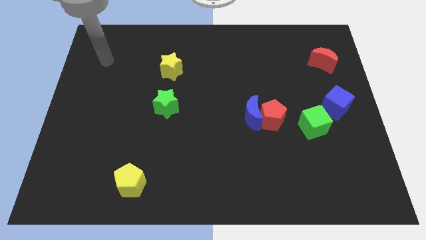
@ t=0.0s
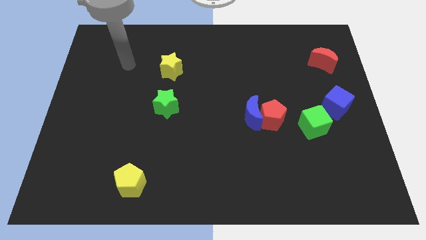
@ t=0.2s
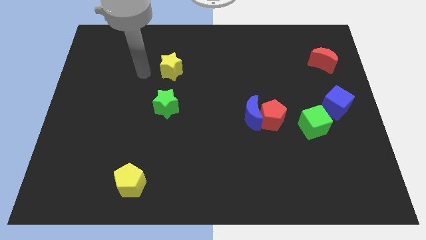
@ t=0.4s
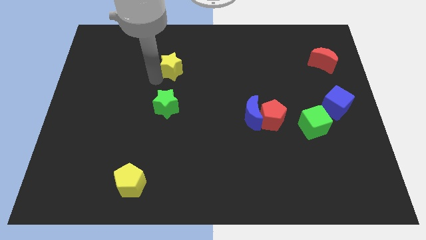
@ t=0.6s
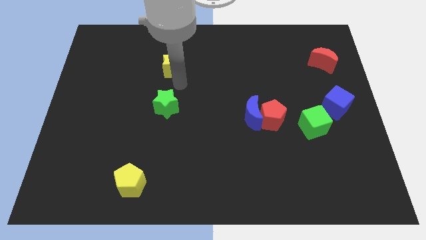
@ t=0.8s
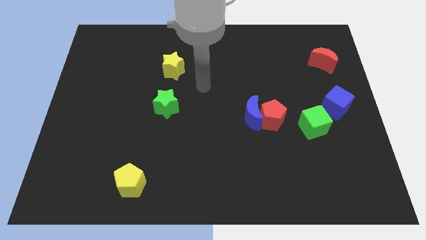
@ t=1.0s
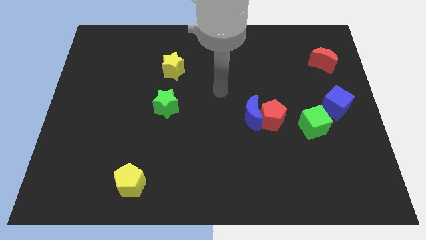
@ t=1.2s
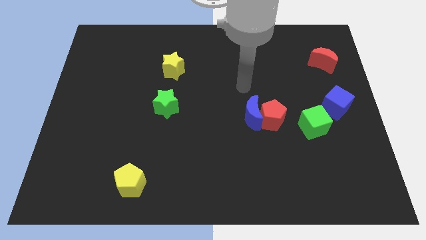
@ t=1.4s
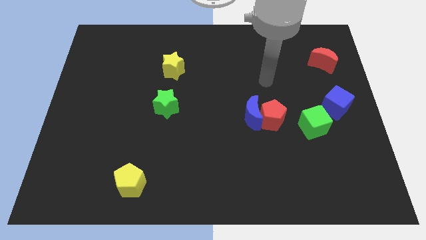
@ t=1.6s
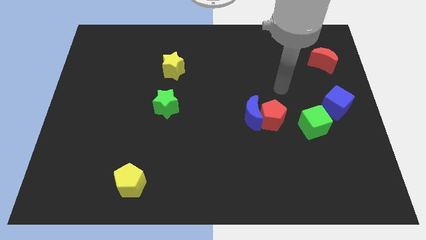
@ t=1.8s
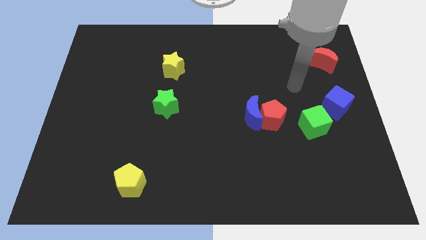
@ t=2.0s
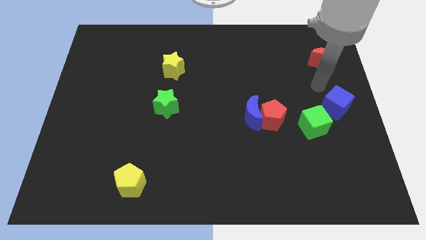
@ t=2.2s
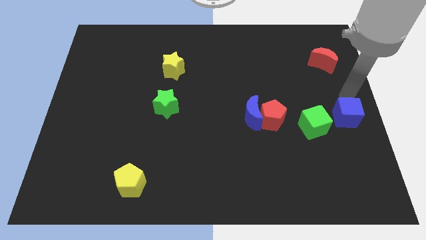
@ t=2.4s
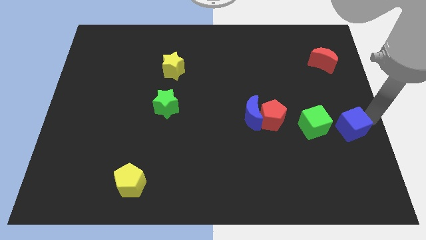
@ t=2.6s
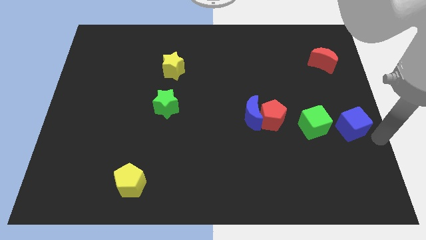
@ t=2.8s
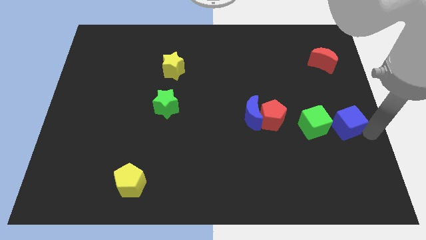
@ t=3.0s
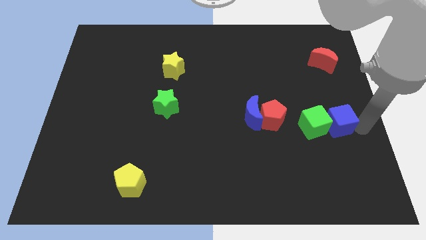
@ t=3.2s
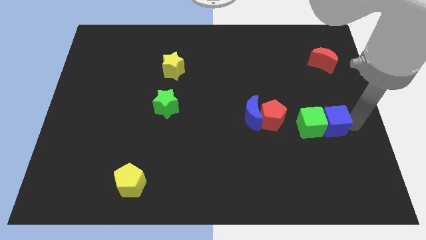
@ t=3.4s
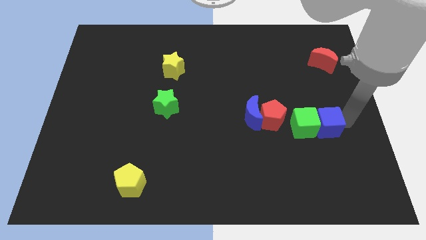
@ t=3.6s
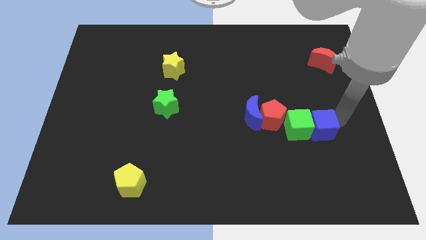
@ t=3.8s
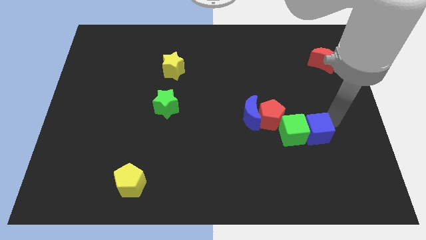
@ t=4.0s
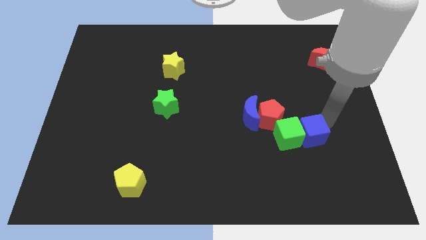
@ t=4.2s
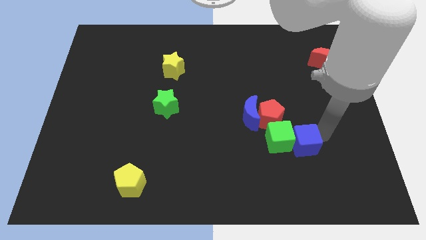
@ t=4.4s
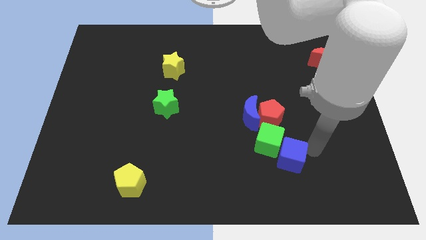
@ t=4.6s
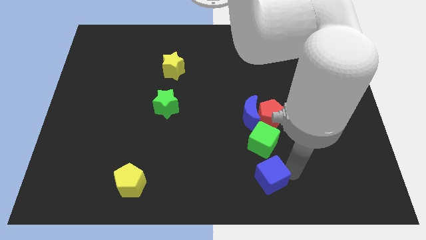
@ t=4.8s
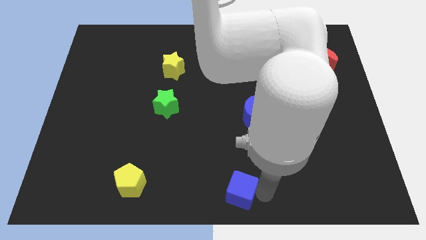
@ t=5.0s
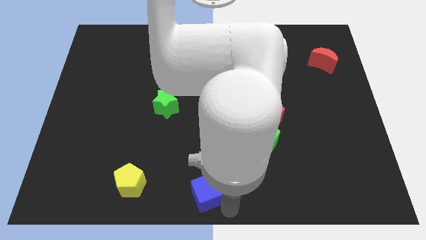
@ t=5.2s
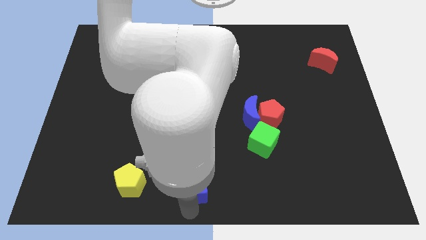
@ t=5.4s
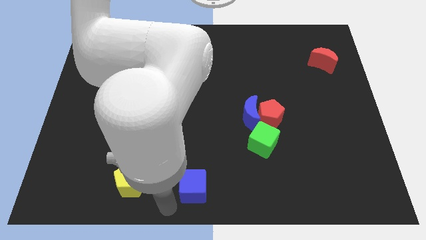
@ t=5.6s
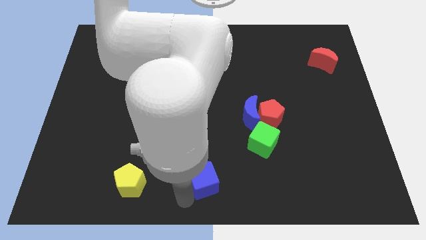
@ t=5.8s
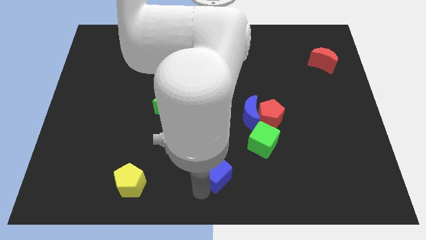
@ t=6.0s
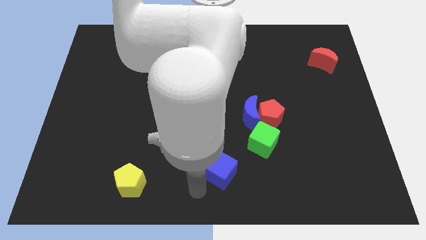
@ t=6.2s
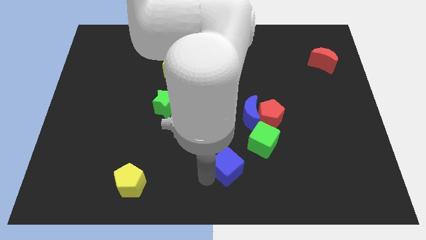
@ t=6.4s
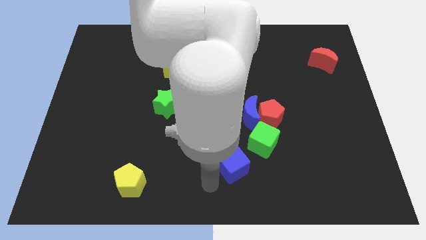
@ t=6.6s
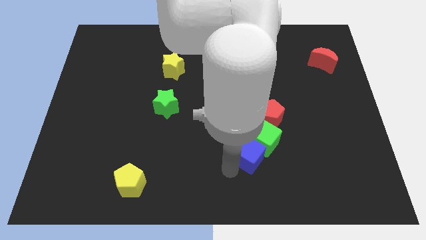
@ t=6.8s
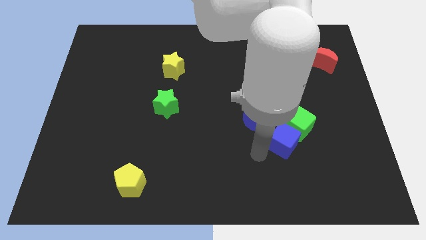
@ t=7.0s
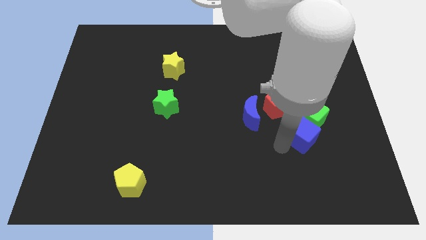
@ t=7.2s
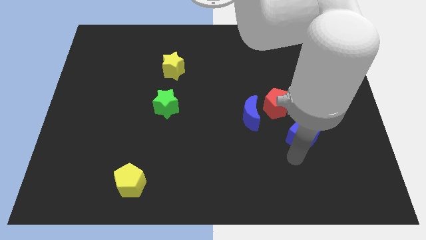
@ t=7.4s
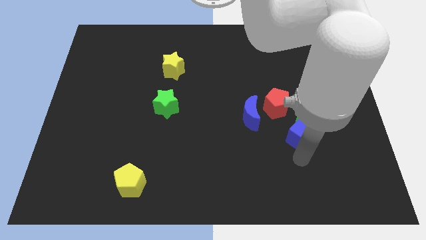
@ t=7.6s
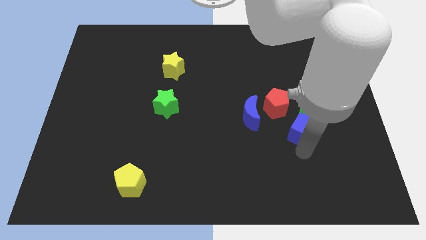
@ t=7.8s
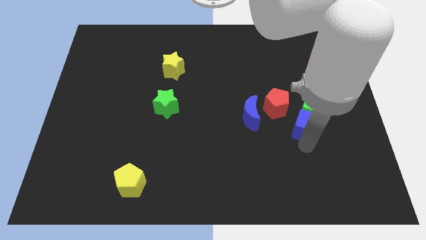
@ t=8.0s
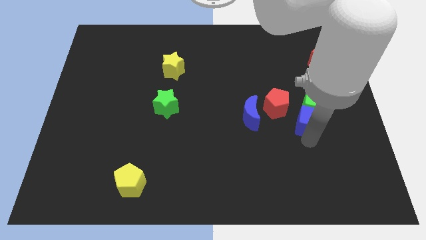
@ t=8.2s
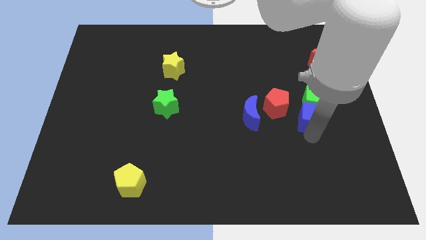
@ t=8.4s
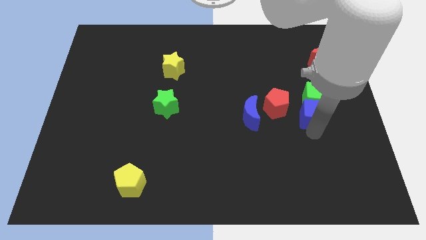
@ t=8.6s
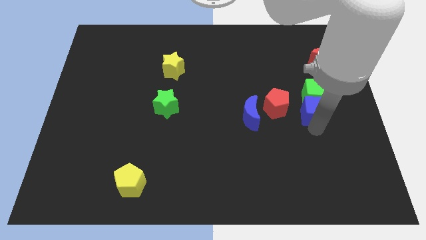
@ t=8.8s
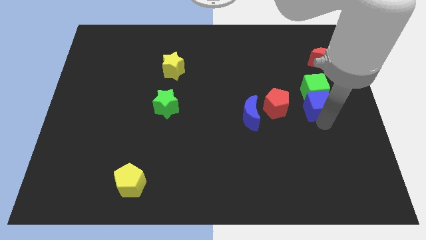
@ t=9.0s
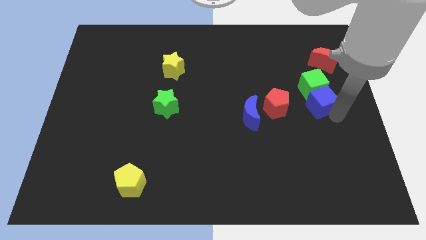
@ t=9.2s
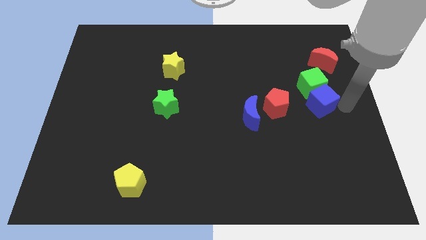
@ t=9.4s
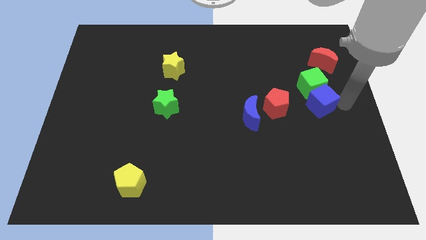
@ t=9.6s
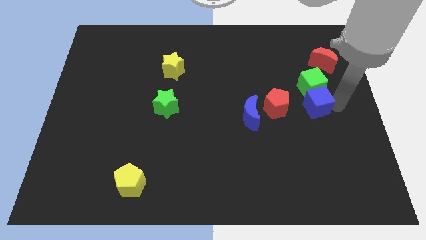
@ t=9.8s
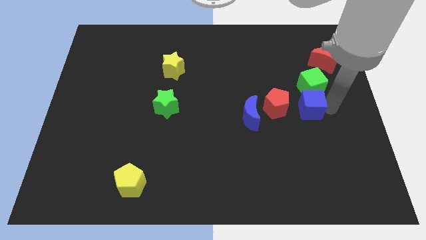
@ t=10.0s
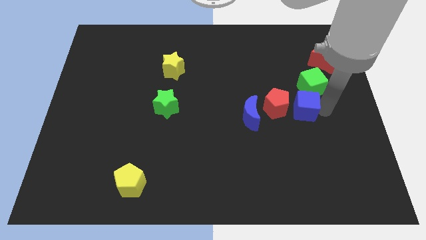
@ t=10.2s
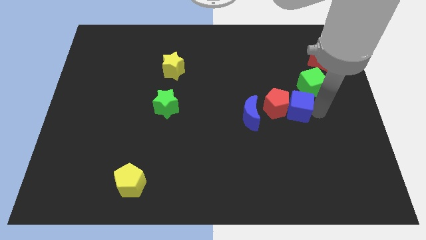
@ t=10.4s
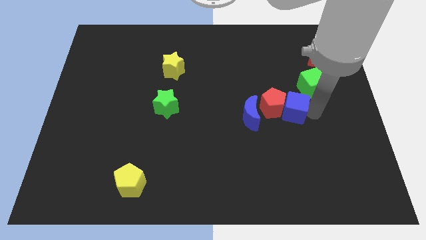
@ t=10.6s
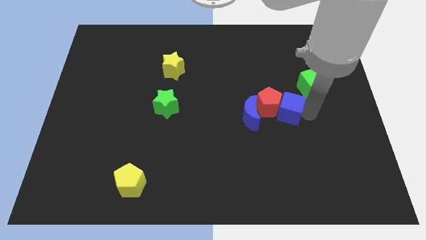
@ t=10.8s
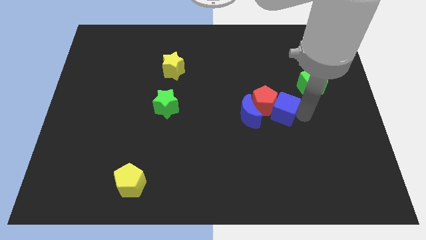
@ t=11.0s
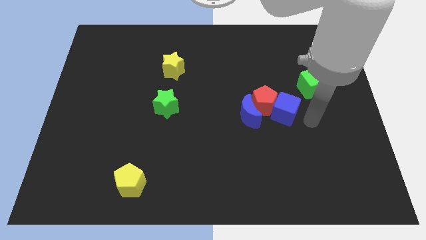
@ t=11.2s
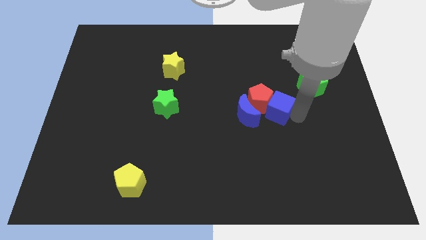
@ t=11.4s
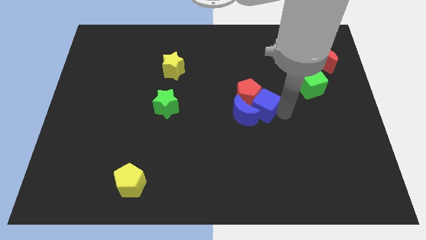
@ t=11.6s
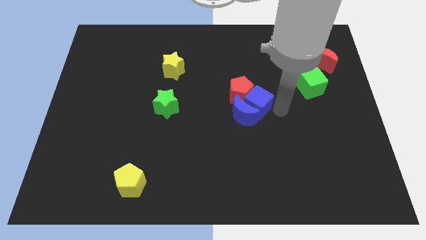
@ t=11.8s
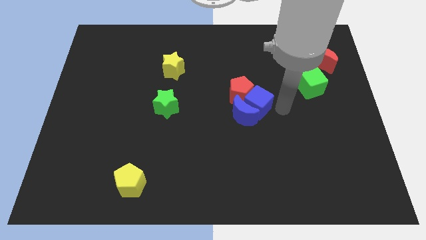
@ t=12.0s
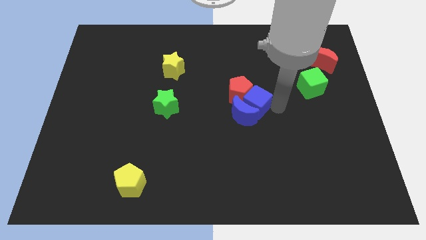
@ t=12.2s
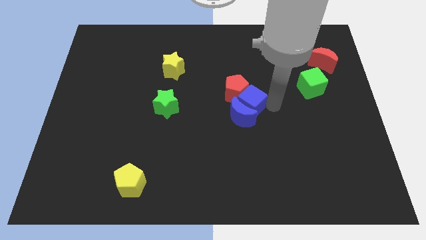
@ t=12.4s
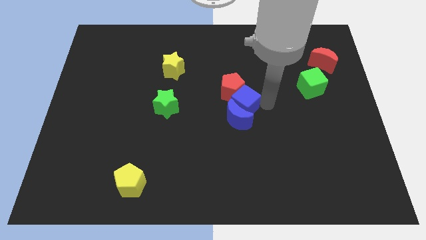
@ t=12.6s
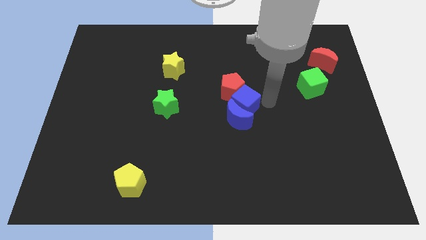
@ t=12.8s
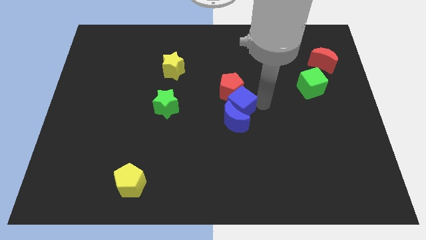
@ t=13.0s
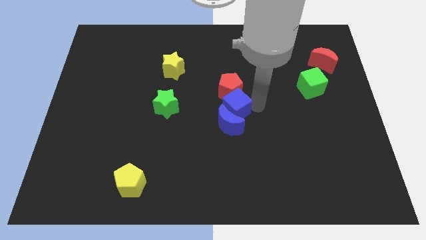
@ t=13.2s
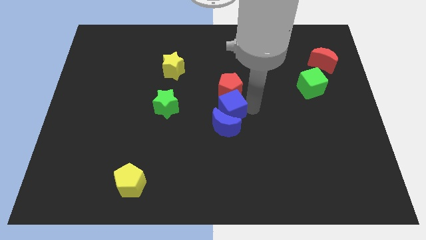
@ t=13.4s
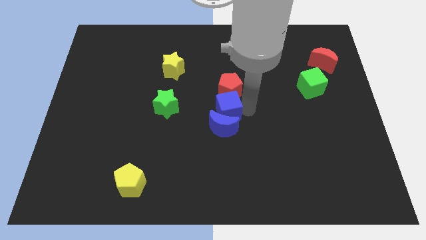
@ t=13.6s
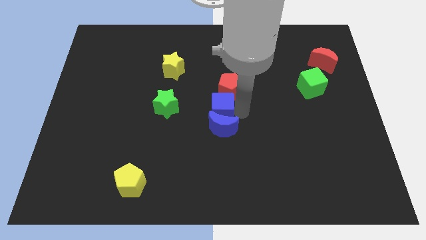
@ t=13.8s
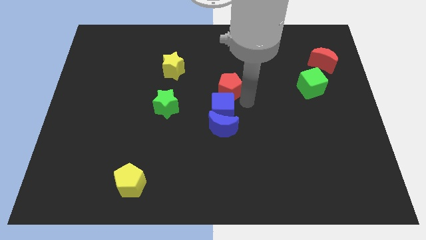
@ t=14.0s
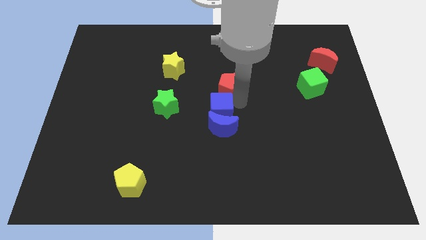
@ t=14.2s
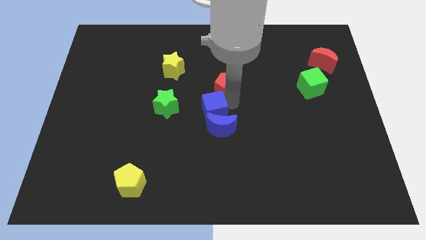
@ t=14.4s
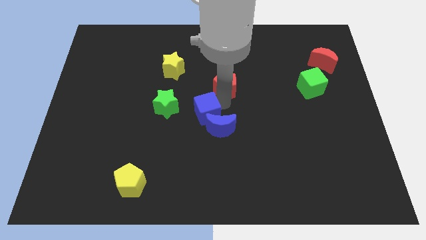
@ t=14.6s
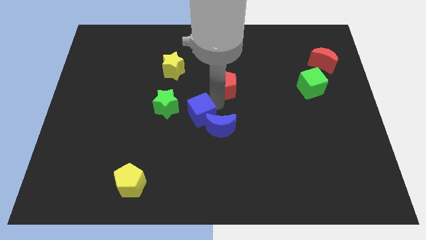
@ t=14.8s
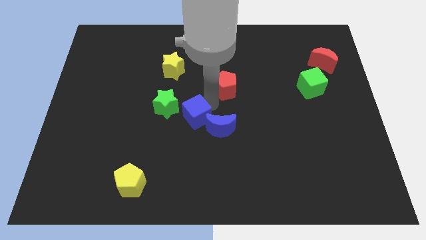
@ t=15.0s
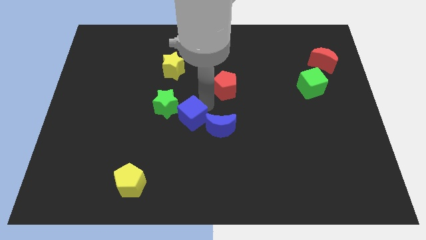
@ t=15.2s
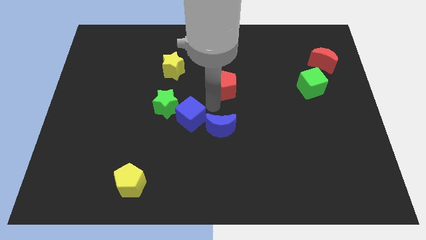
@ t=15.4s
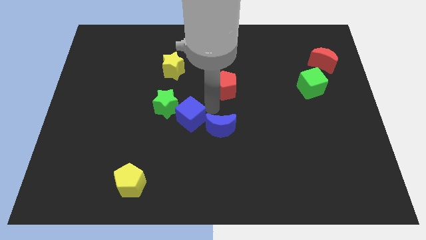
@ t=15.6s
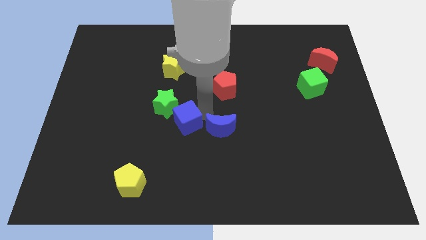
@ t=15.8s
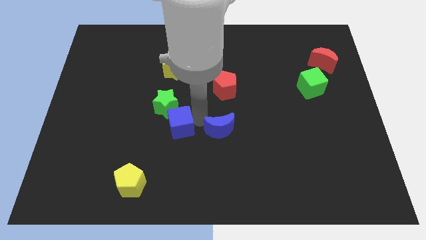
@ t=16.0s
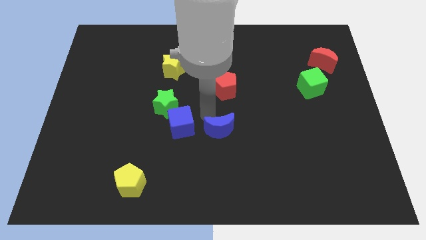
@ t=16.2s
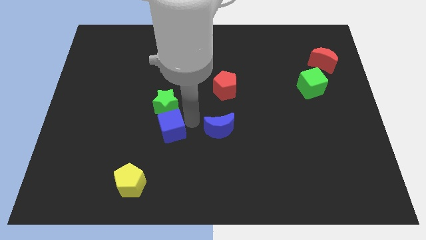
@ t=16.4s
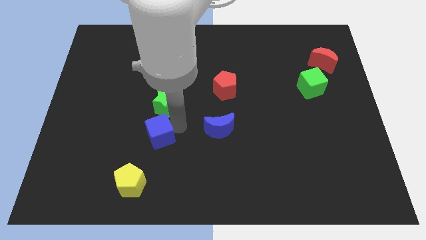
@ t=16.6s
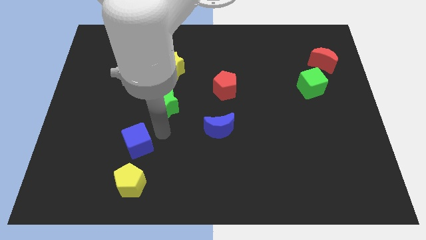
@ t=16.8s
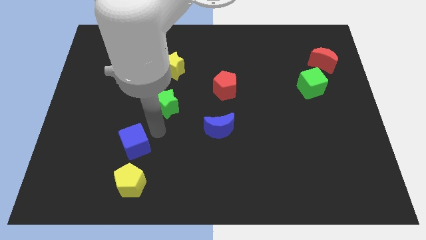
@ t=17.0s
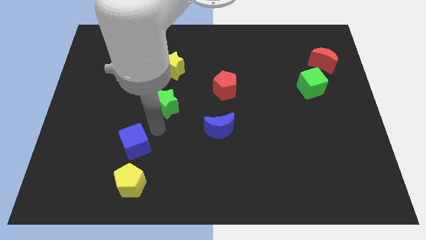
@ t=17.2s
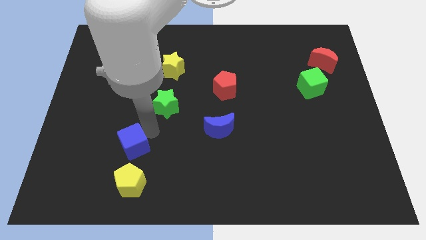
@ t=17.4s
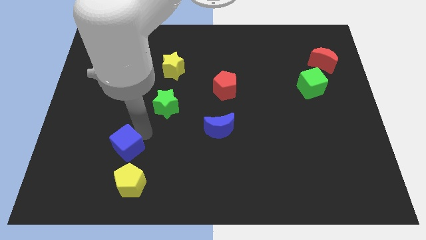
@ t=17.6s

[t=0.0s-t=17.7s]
put the blue cube to the top left of the yellow pentagon
